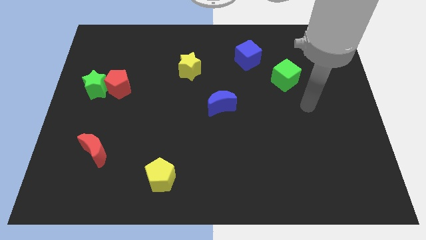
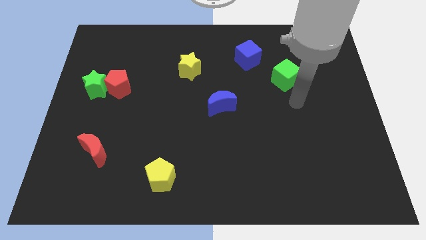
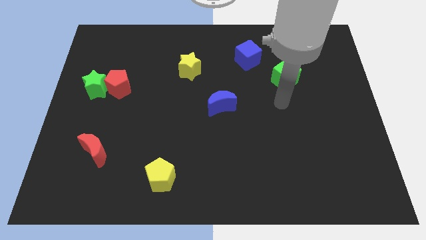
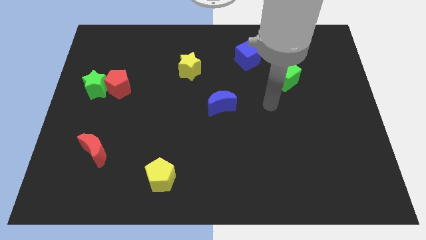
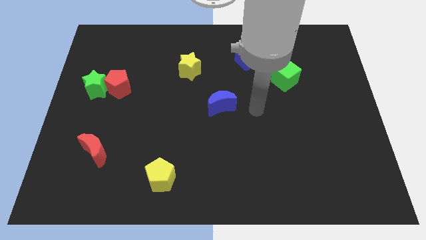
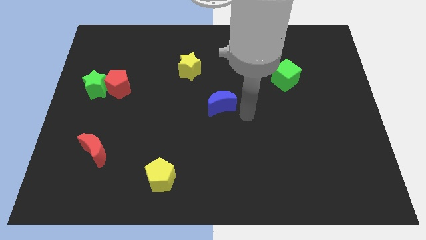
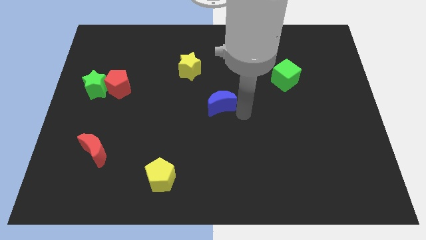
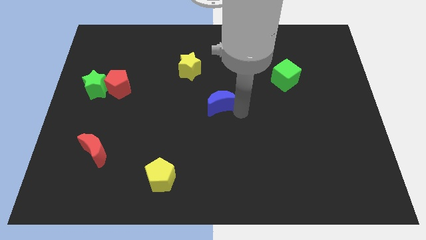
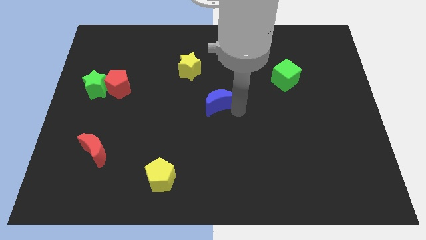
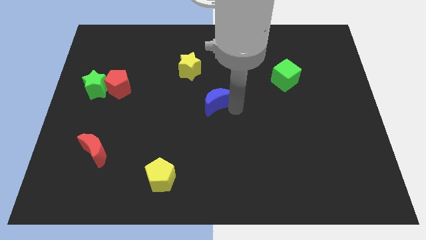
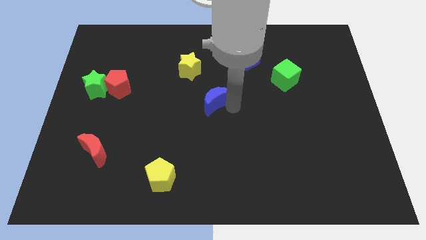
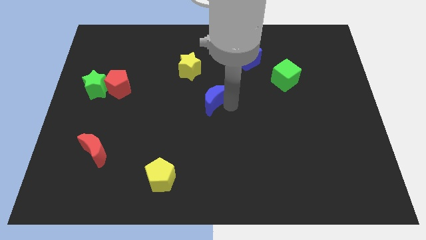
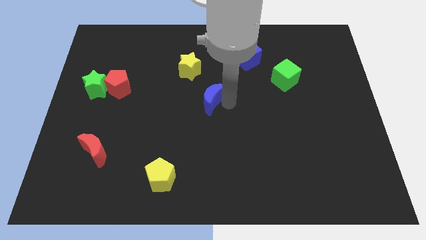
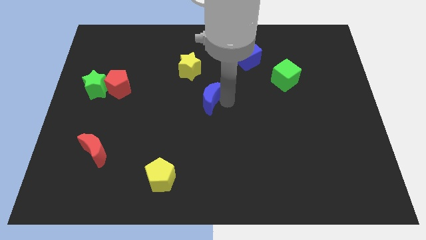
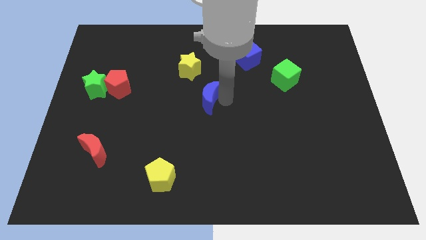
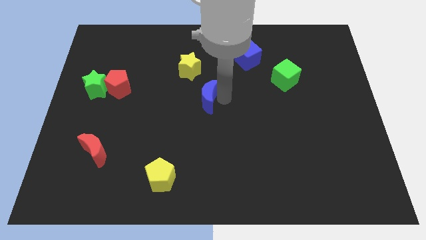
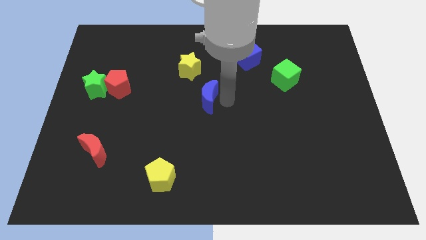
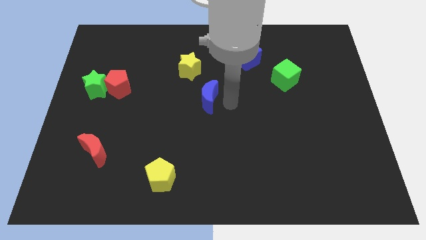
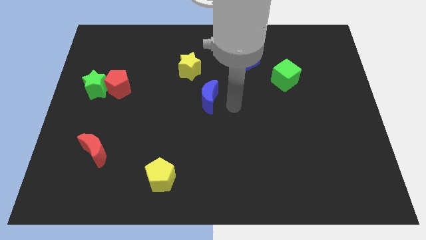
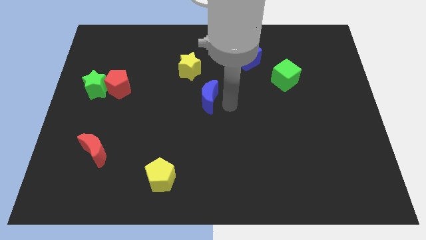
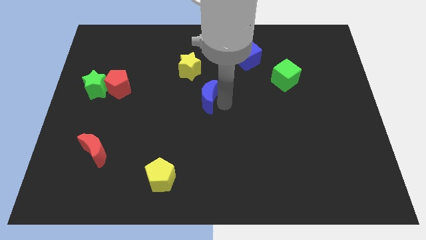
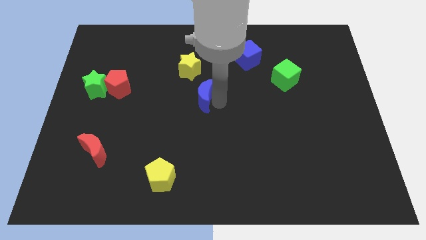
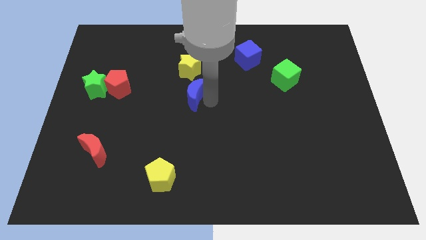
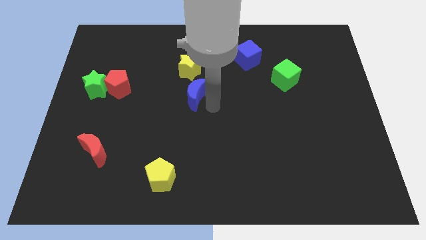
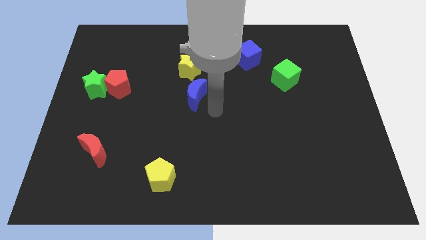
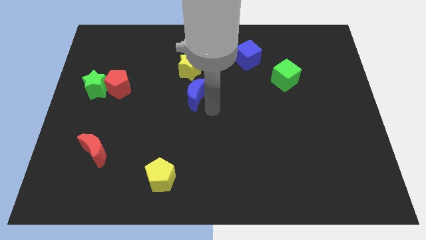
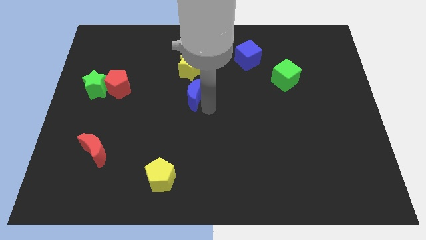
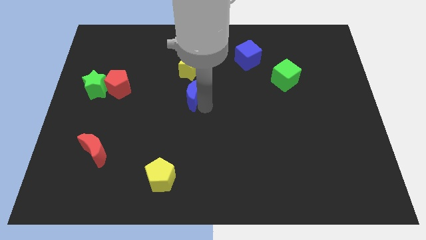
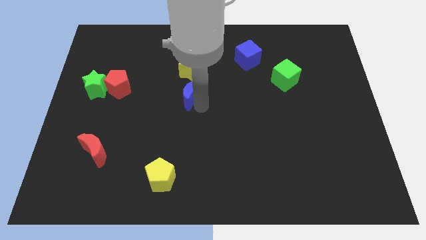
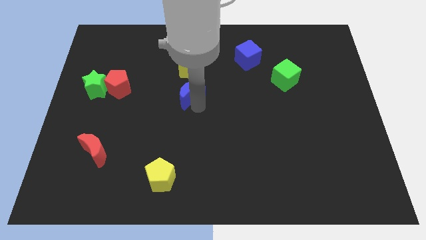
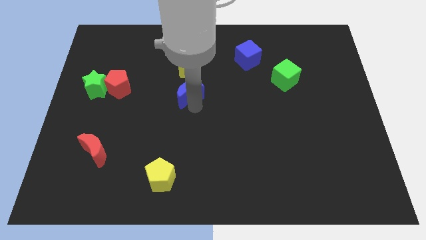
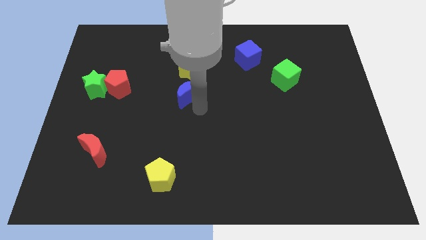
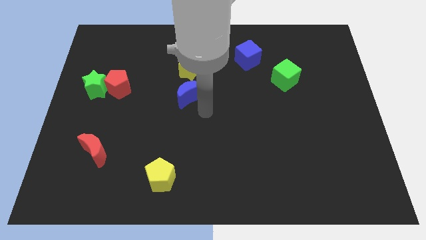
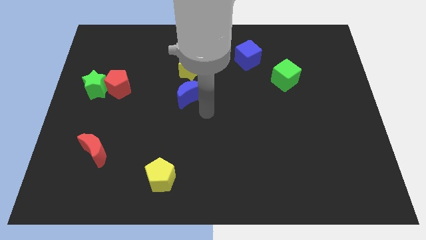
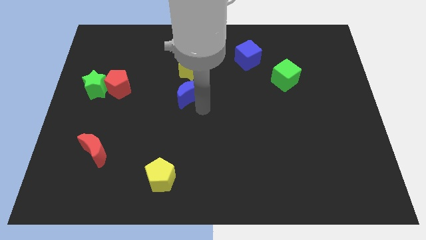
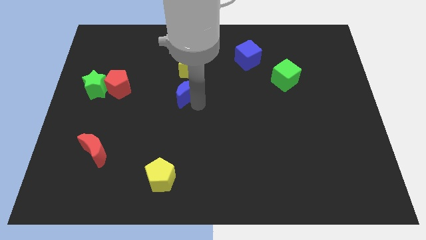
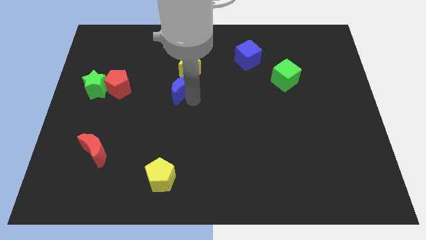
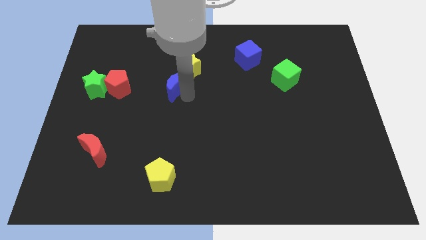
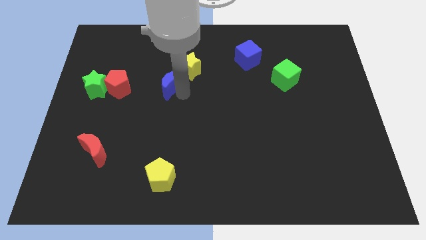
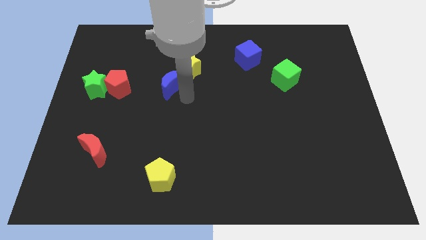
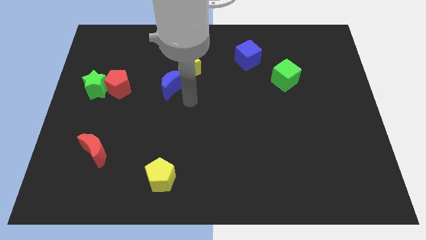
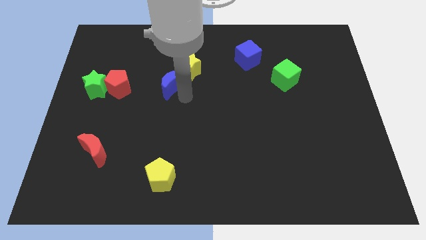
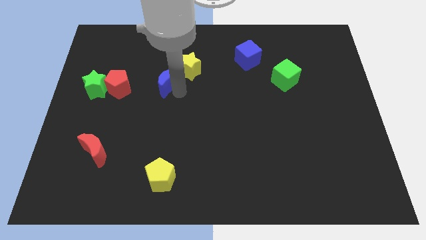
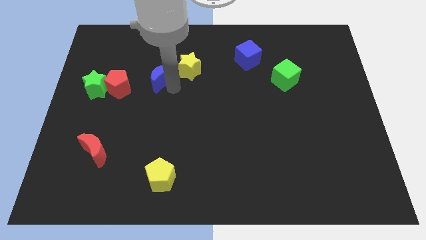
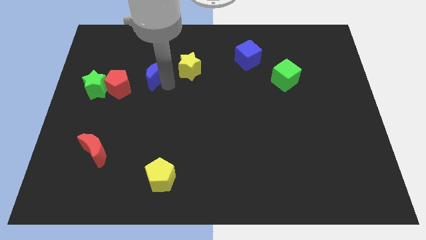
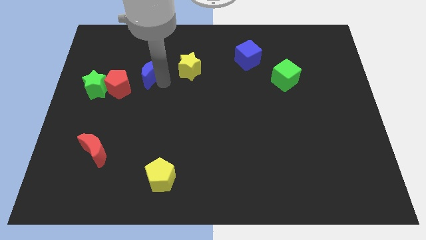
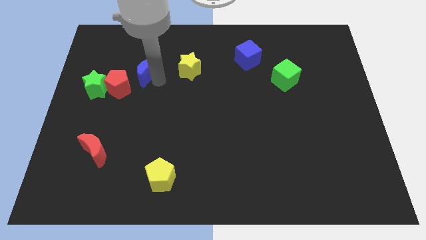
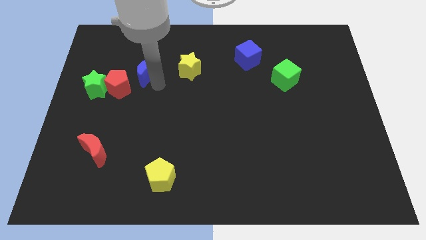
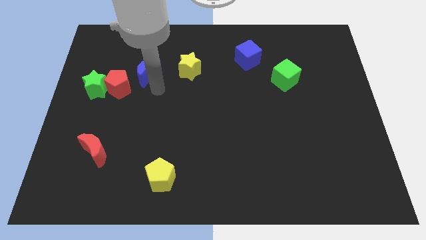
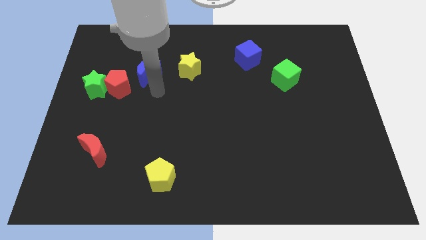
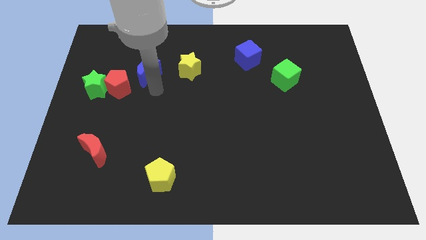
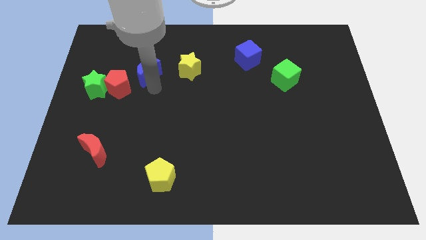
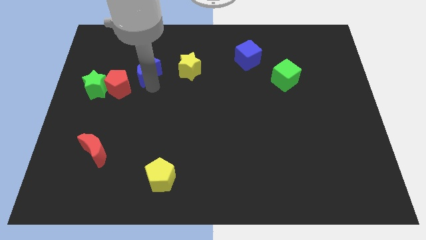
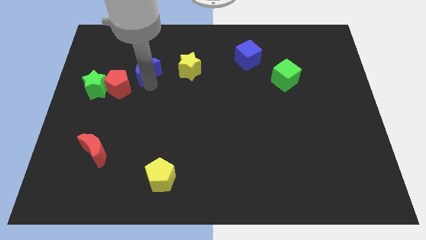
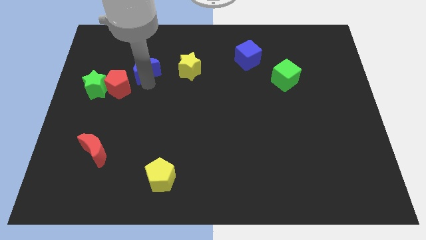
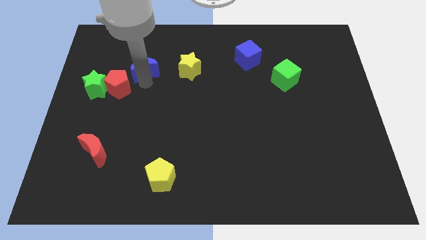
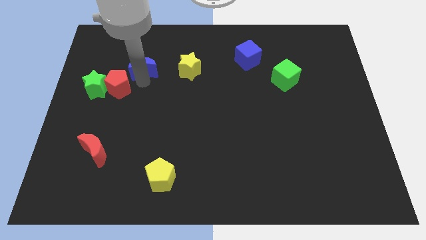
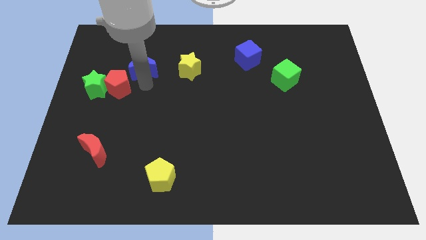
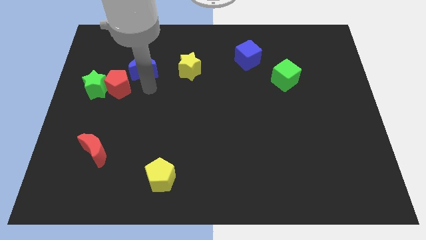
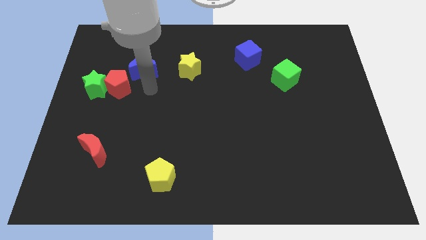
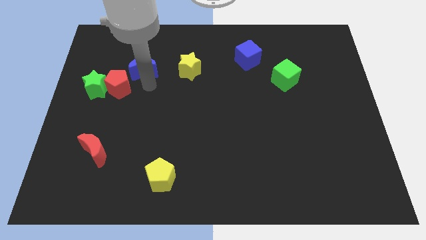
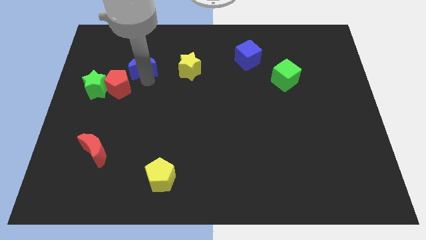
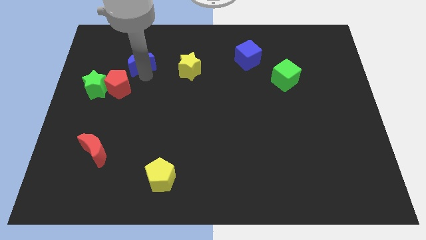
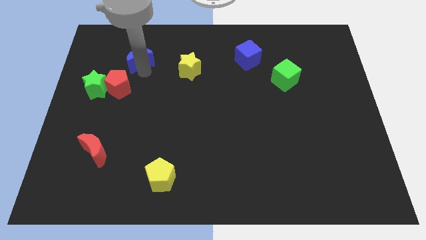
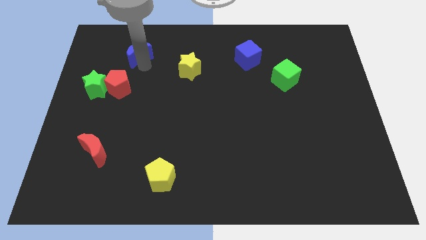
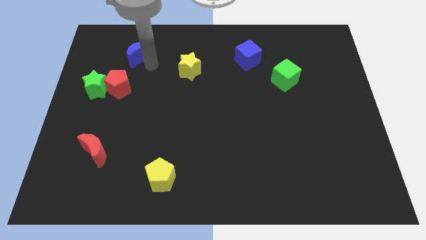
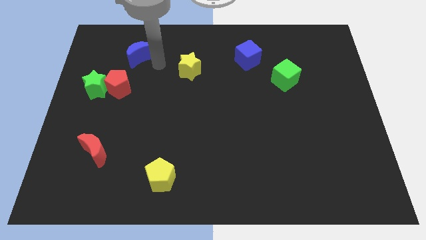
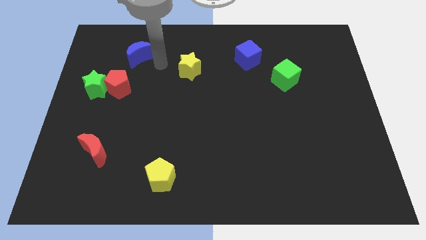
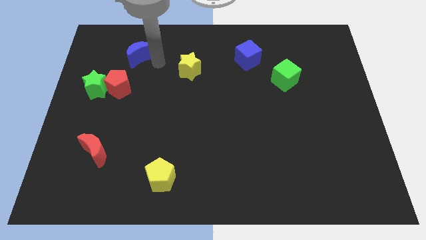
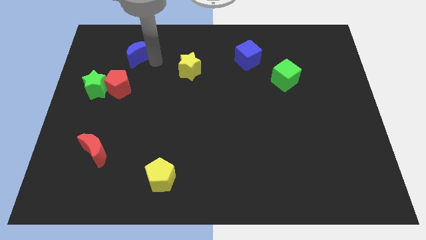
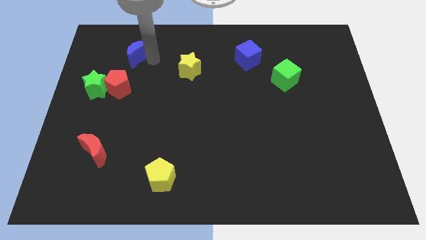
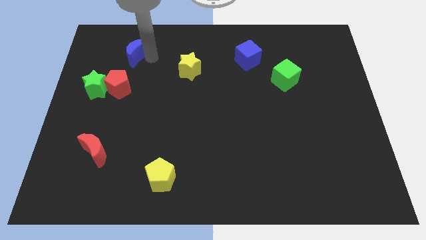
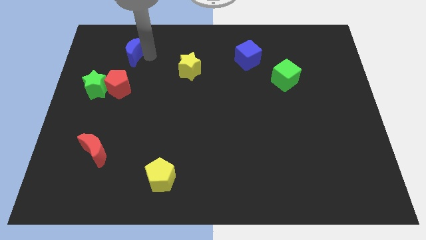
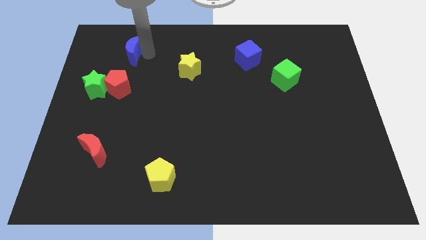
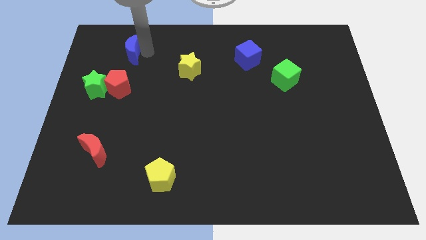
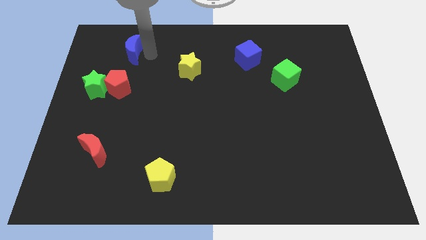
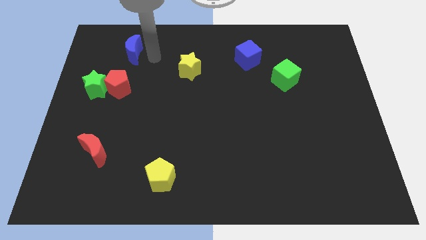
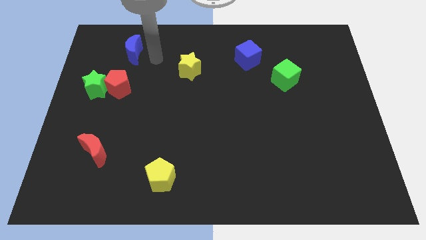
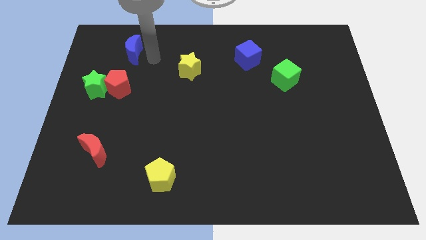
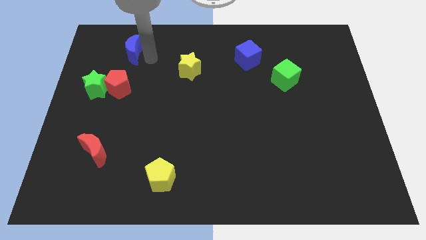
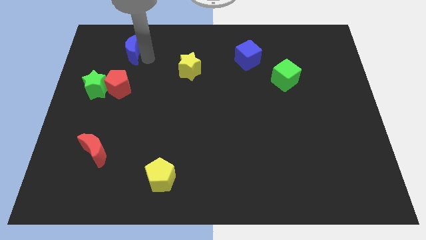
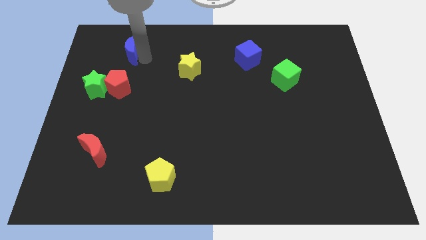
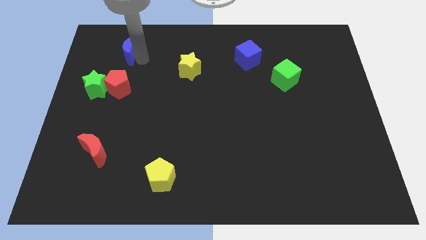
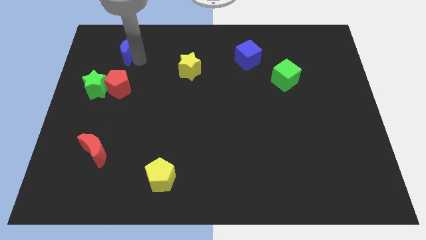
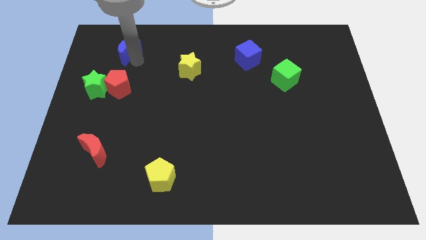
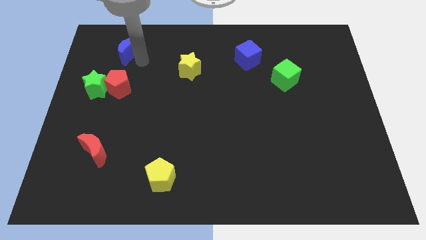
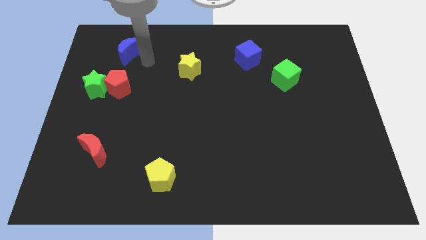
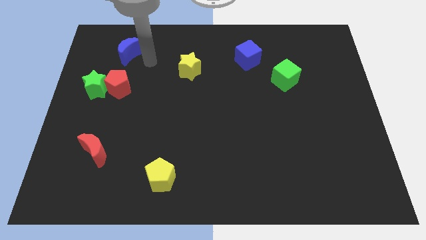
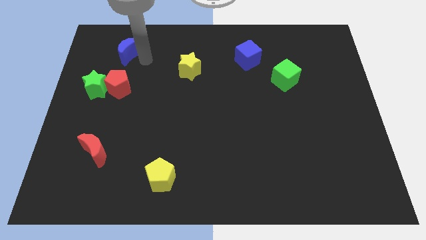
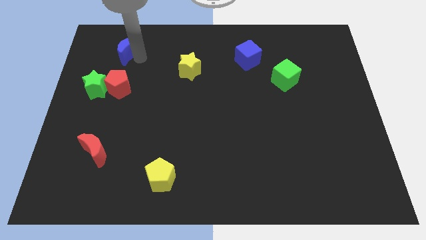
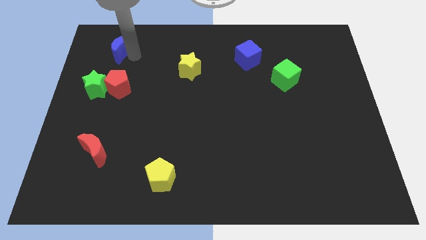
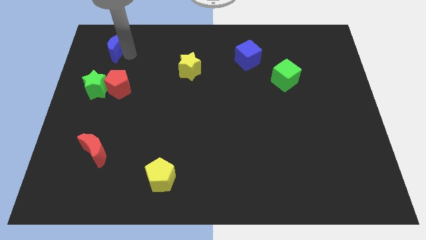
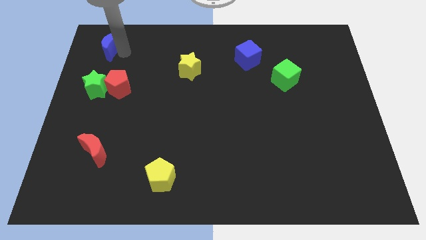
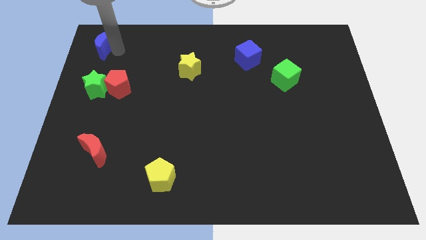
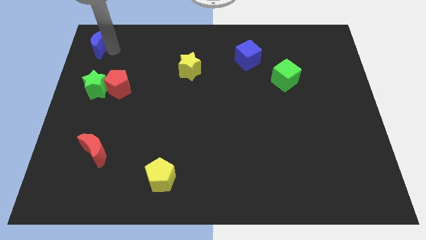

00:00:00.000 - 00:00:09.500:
slide the blue moon to the top left of the board
